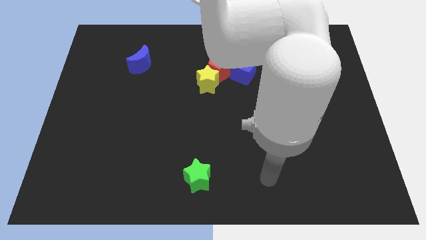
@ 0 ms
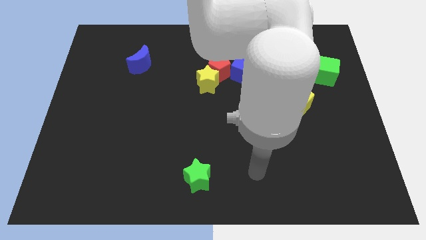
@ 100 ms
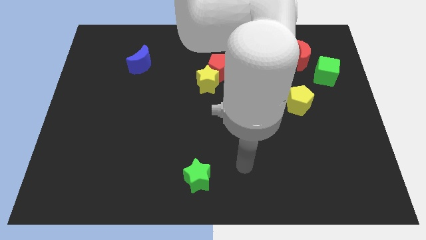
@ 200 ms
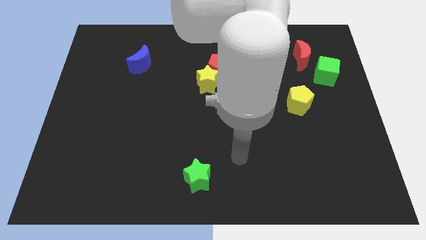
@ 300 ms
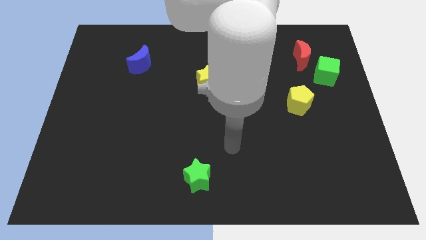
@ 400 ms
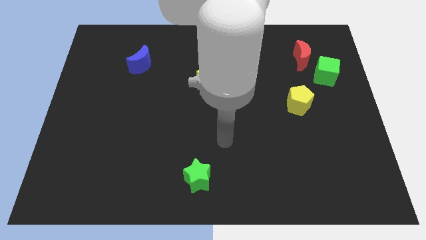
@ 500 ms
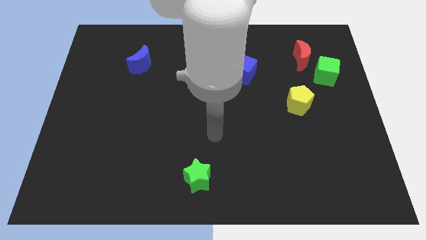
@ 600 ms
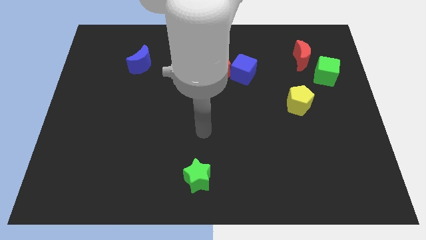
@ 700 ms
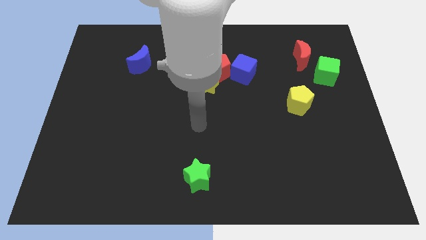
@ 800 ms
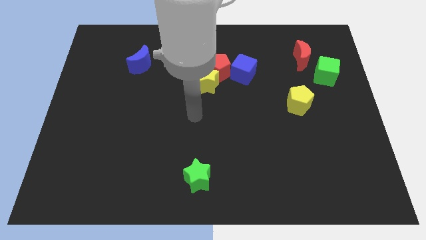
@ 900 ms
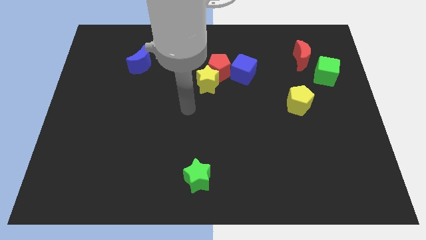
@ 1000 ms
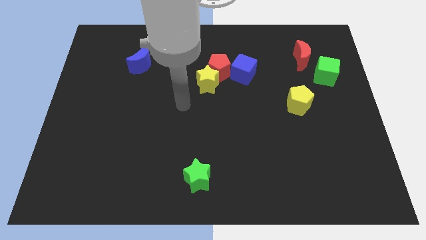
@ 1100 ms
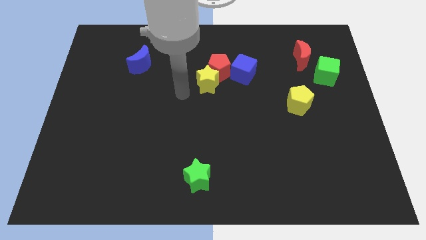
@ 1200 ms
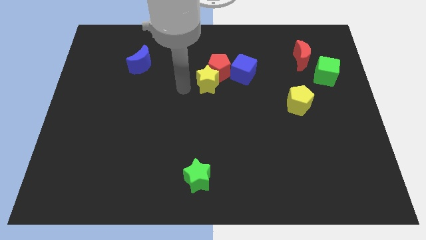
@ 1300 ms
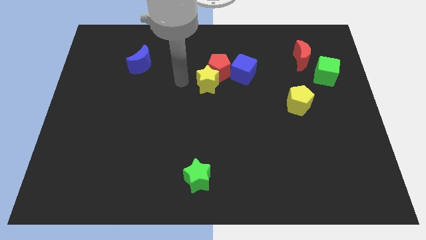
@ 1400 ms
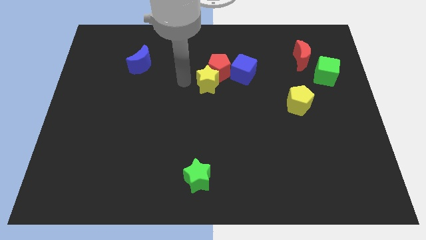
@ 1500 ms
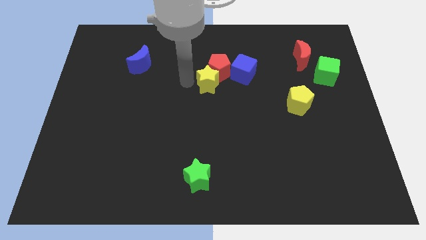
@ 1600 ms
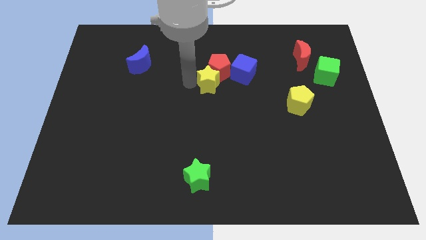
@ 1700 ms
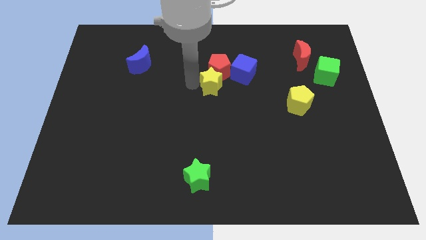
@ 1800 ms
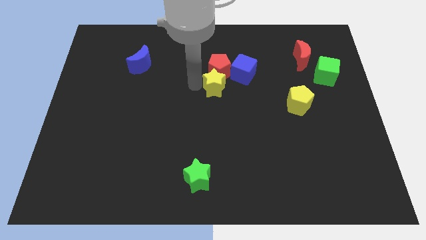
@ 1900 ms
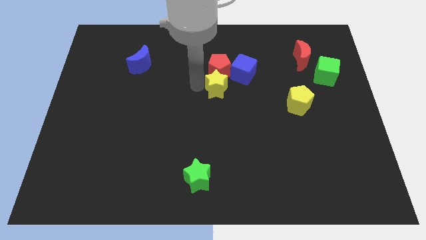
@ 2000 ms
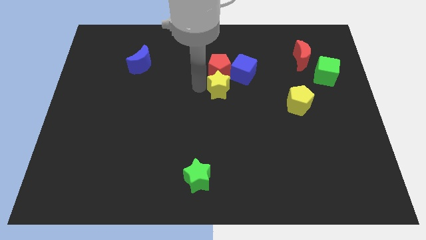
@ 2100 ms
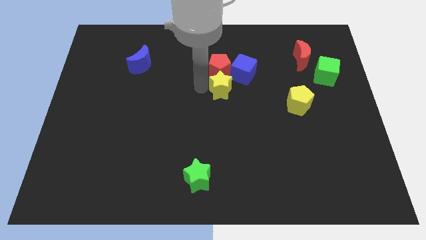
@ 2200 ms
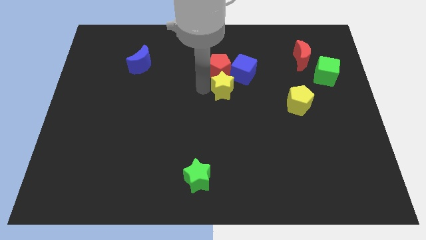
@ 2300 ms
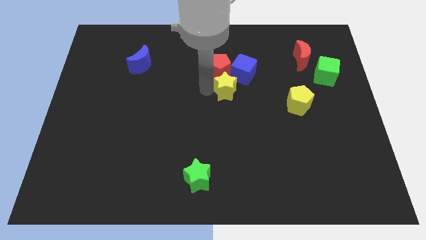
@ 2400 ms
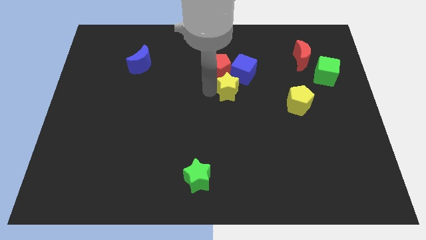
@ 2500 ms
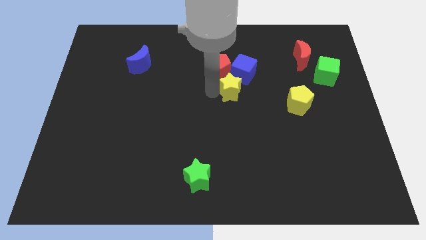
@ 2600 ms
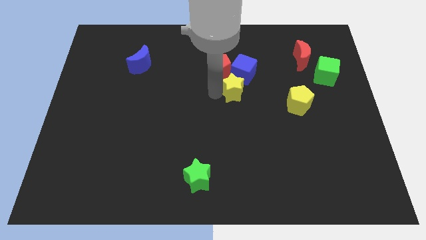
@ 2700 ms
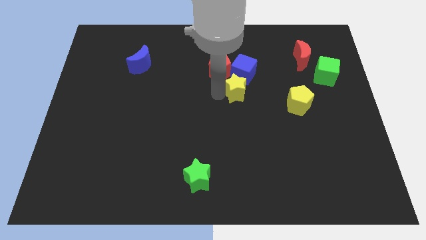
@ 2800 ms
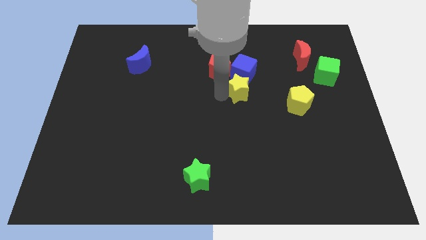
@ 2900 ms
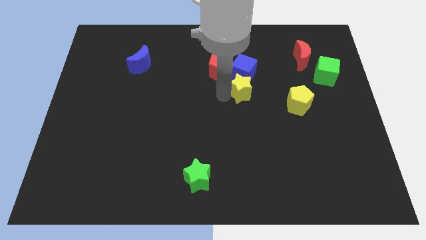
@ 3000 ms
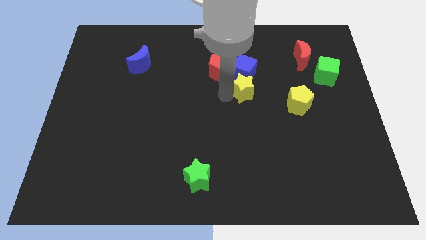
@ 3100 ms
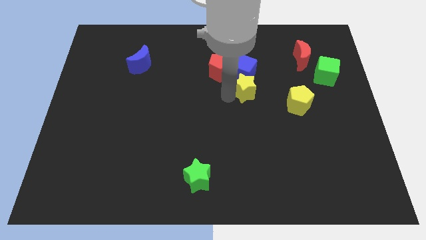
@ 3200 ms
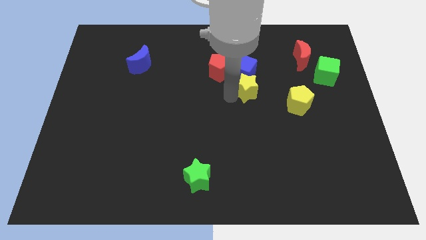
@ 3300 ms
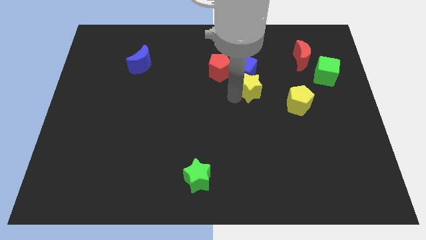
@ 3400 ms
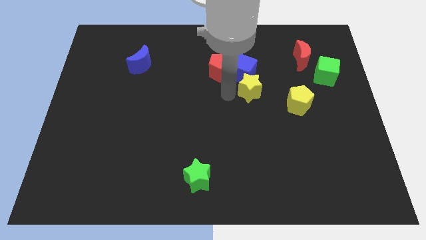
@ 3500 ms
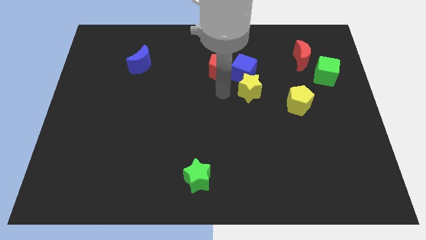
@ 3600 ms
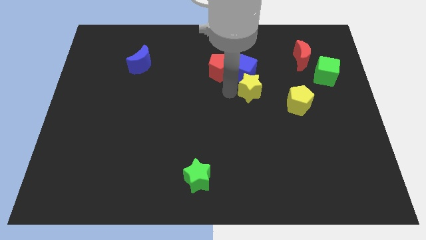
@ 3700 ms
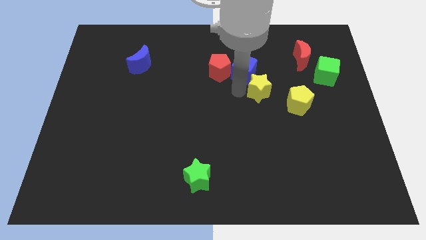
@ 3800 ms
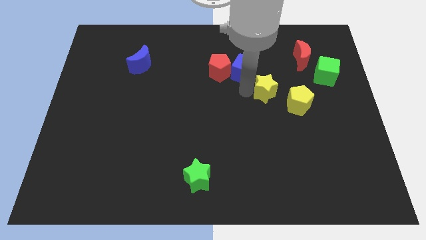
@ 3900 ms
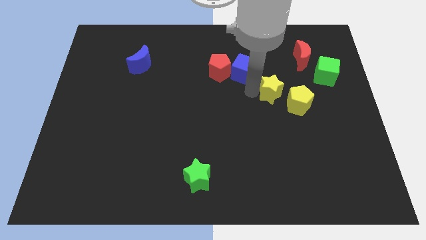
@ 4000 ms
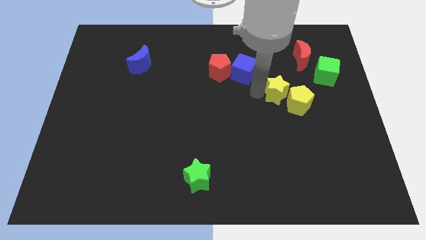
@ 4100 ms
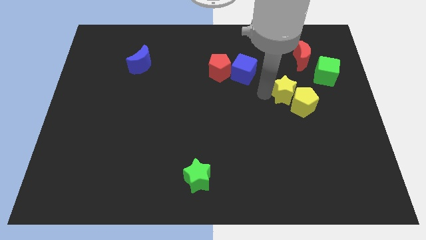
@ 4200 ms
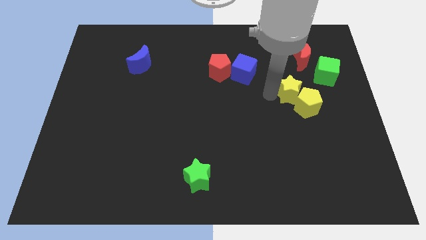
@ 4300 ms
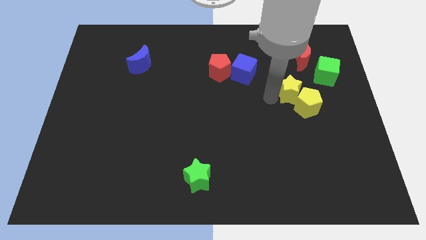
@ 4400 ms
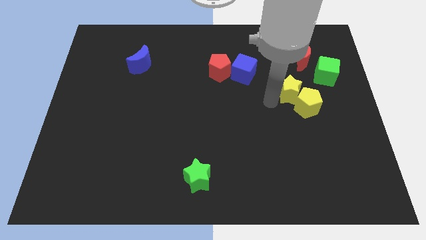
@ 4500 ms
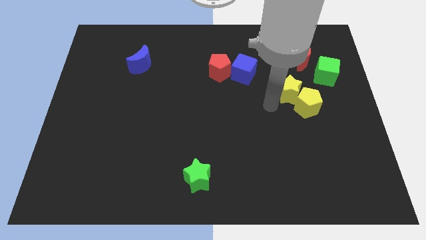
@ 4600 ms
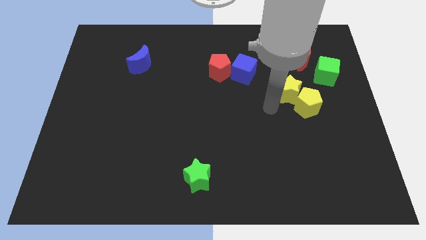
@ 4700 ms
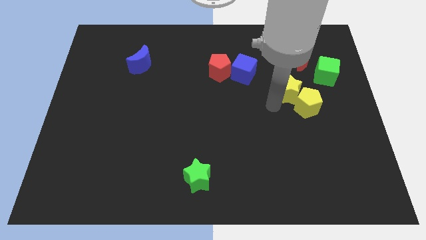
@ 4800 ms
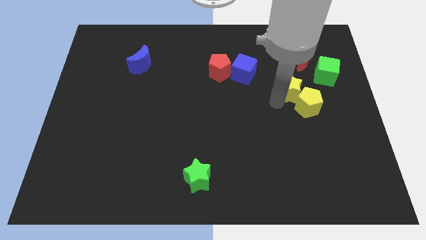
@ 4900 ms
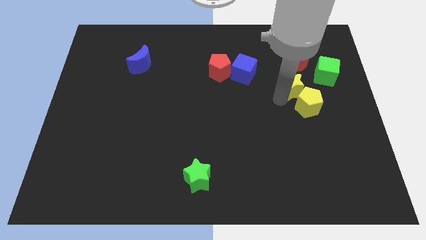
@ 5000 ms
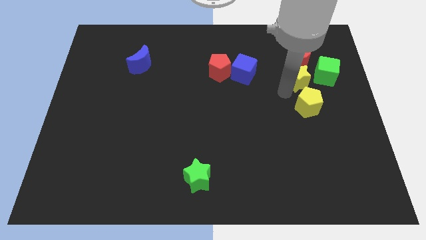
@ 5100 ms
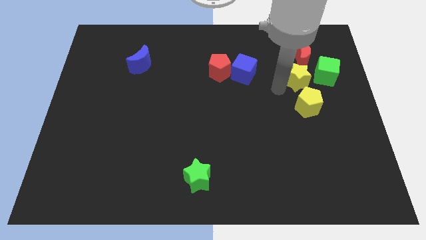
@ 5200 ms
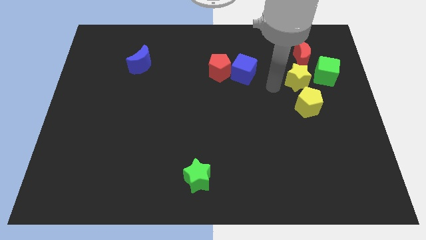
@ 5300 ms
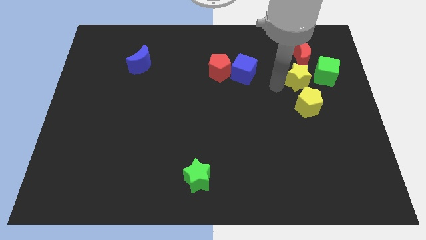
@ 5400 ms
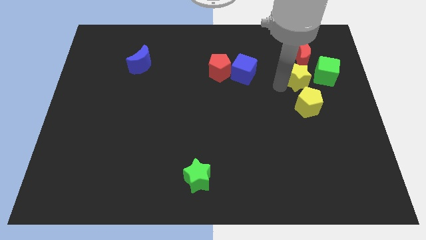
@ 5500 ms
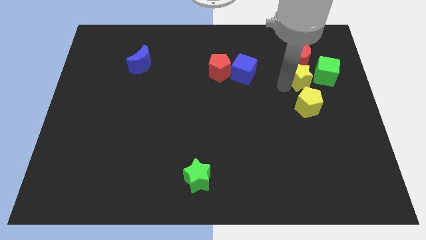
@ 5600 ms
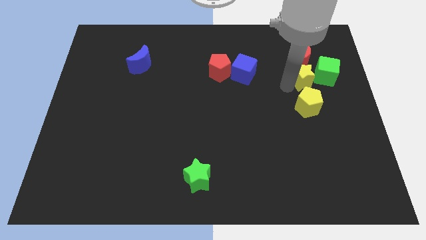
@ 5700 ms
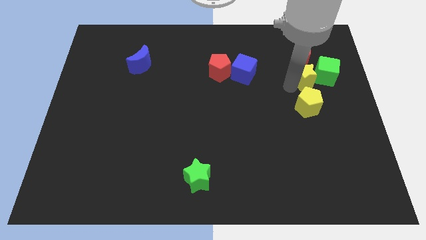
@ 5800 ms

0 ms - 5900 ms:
slide the yellow star close to the green cube

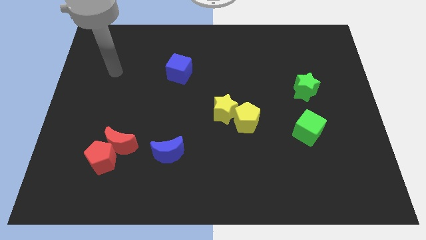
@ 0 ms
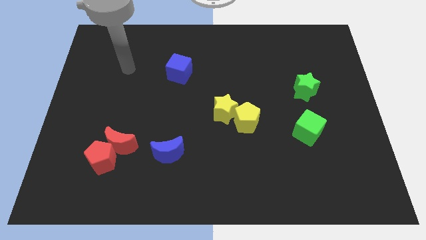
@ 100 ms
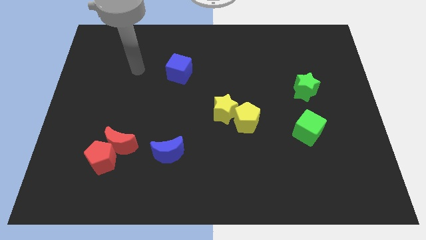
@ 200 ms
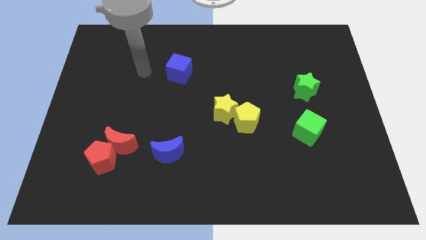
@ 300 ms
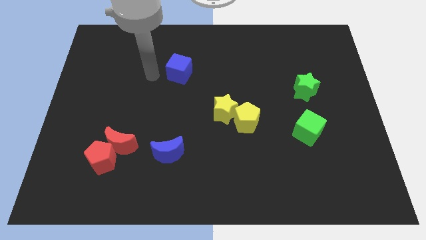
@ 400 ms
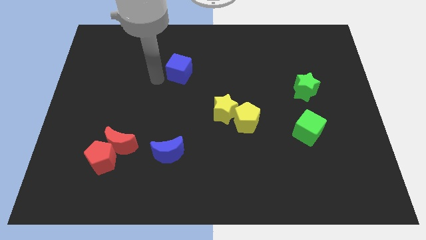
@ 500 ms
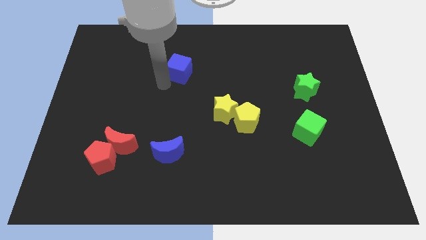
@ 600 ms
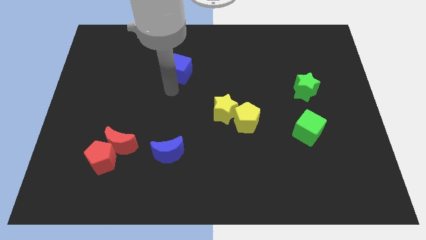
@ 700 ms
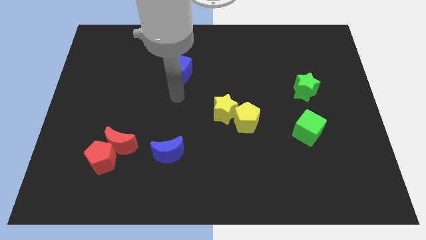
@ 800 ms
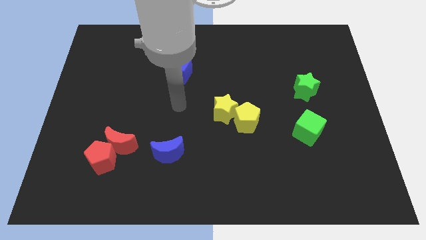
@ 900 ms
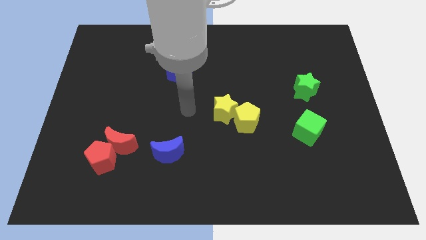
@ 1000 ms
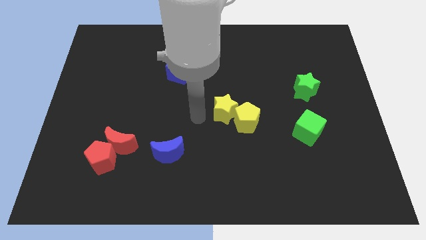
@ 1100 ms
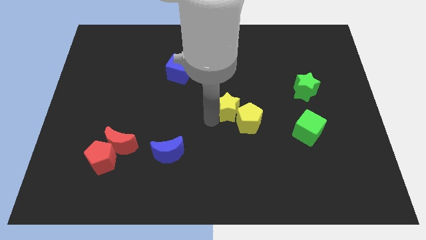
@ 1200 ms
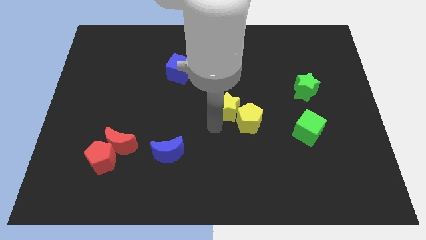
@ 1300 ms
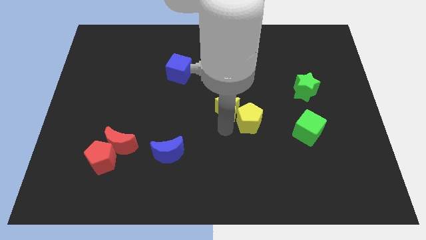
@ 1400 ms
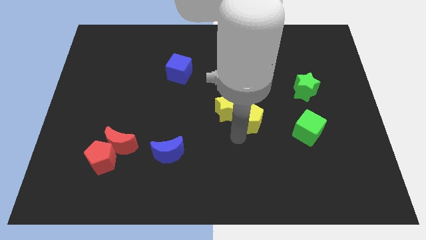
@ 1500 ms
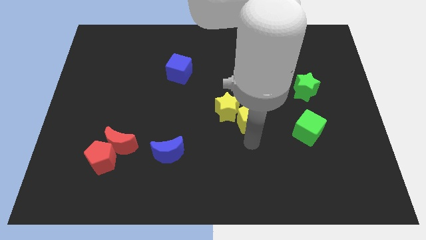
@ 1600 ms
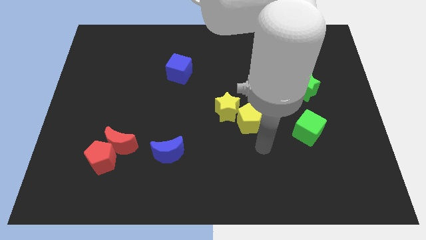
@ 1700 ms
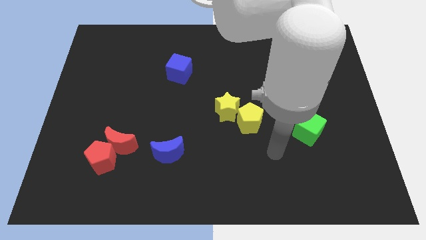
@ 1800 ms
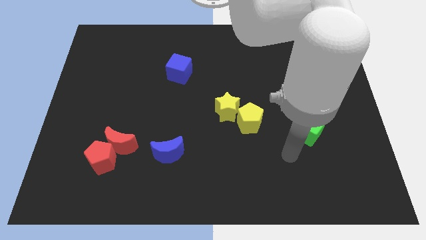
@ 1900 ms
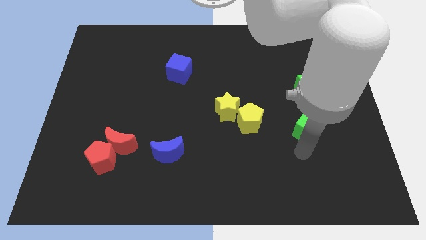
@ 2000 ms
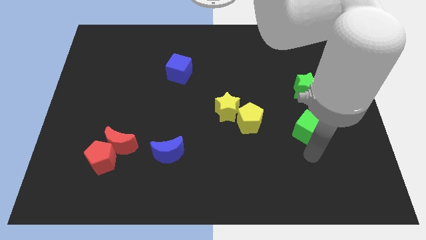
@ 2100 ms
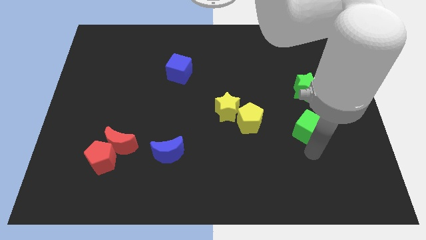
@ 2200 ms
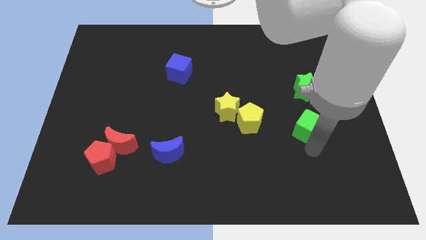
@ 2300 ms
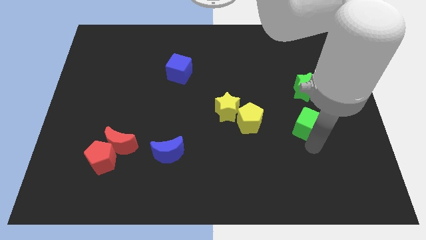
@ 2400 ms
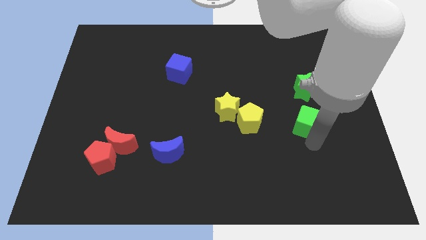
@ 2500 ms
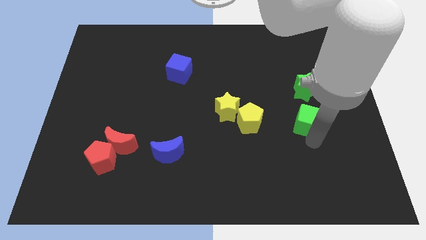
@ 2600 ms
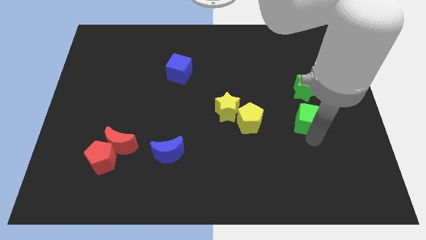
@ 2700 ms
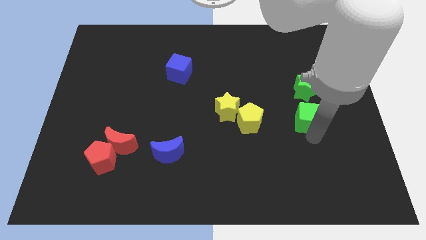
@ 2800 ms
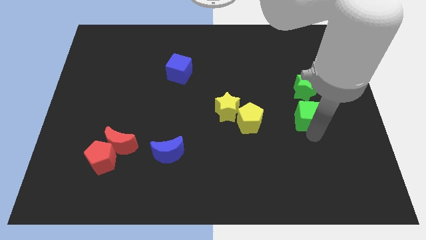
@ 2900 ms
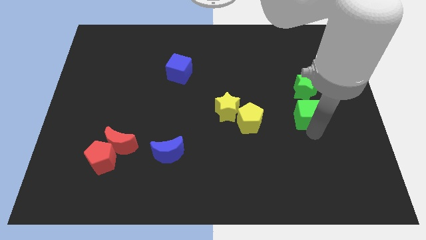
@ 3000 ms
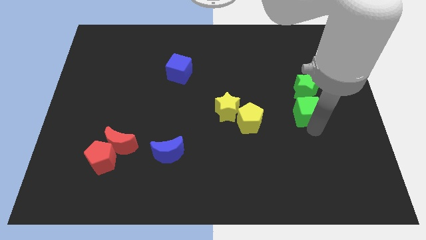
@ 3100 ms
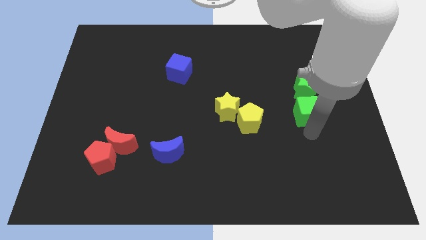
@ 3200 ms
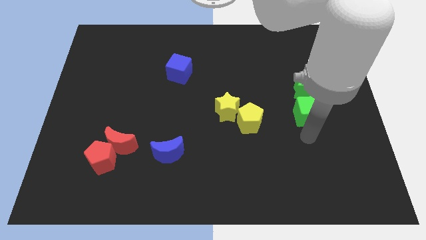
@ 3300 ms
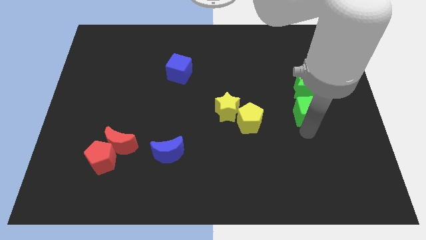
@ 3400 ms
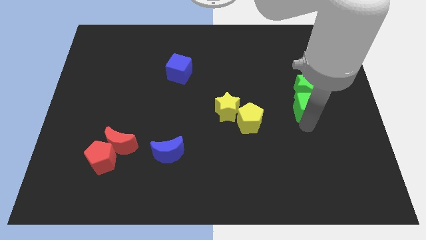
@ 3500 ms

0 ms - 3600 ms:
push the green cube next to the green star
